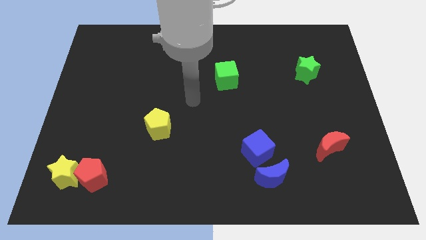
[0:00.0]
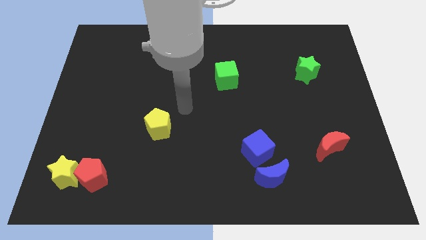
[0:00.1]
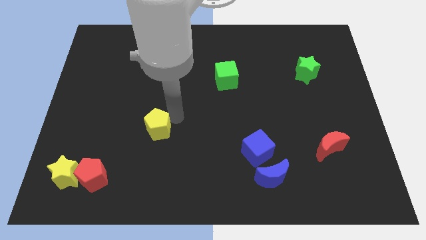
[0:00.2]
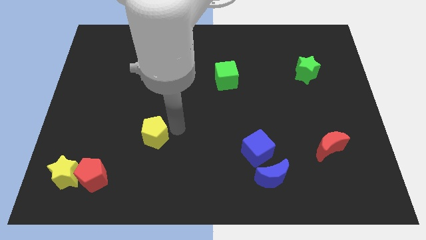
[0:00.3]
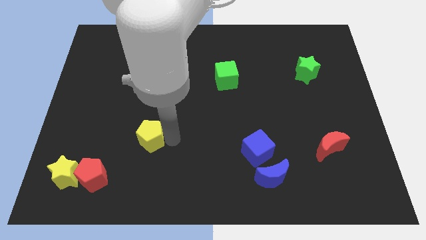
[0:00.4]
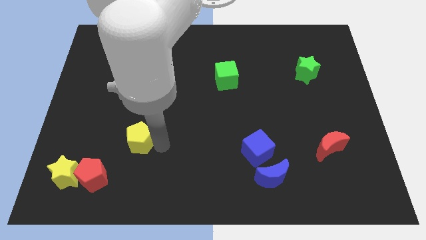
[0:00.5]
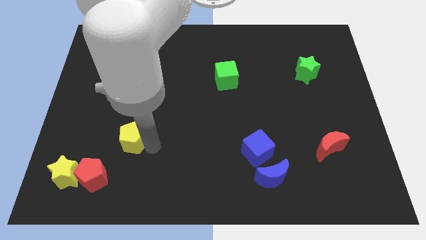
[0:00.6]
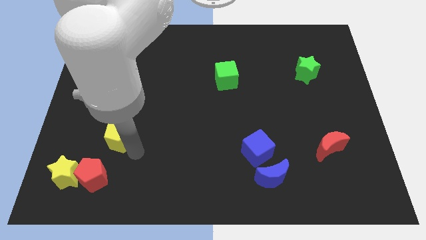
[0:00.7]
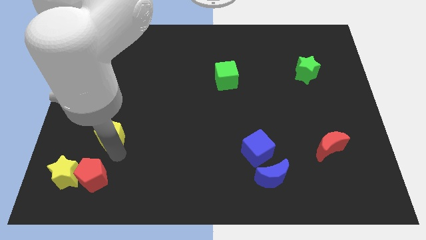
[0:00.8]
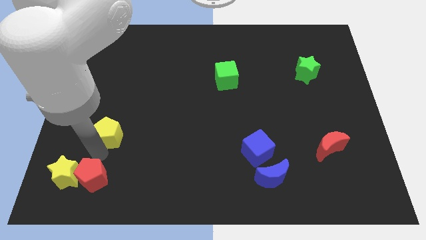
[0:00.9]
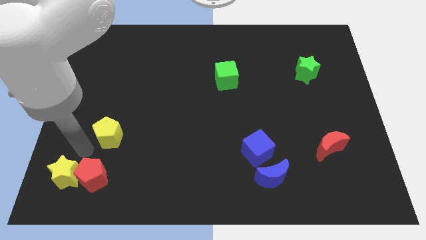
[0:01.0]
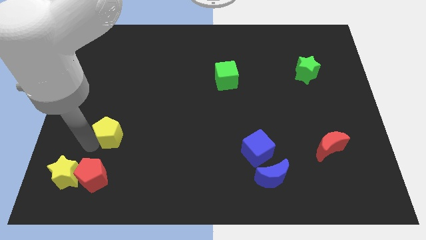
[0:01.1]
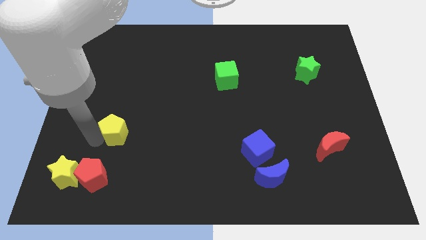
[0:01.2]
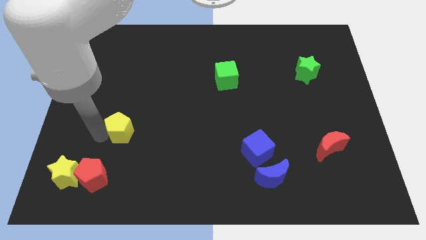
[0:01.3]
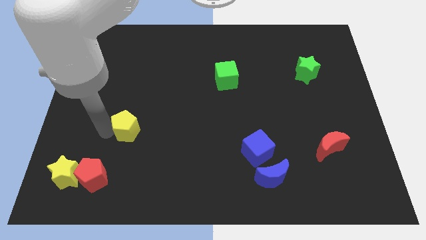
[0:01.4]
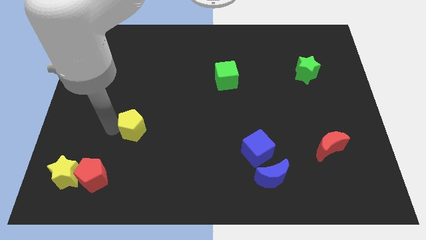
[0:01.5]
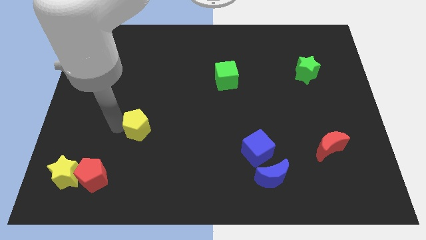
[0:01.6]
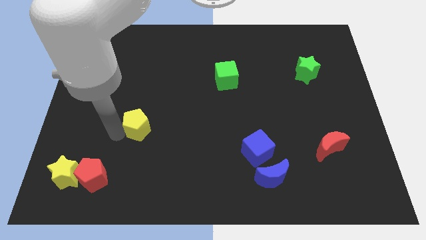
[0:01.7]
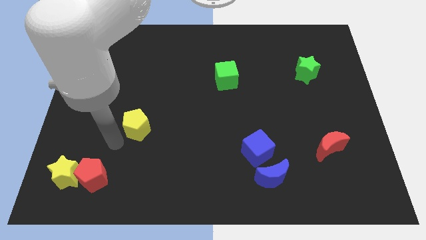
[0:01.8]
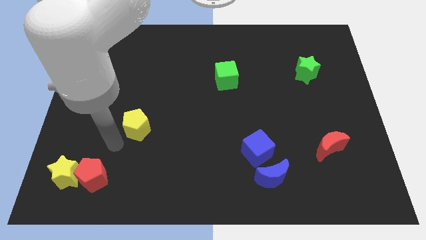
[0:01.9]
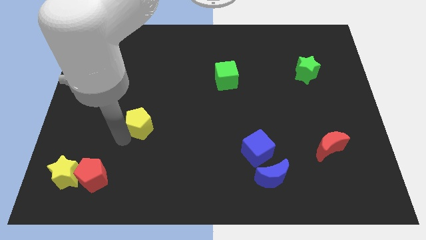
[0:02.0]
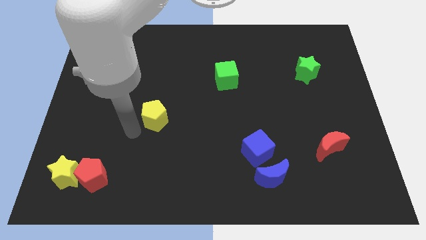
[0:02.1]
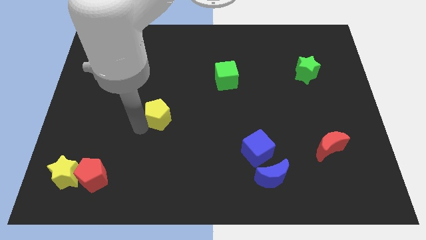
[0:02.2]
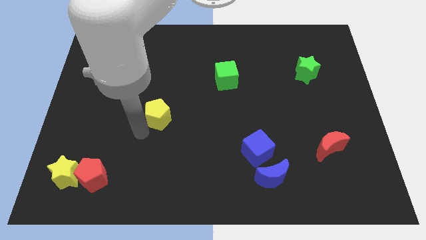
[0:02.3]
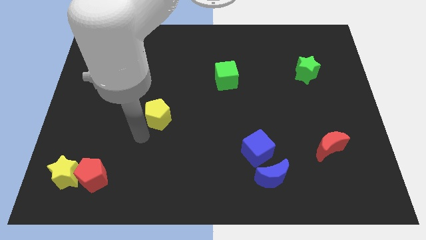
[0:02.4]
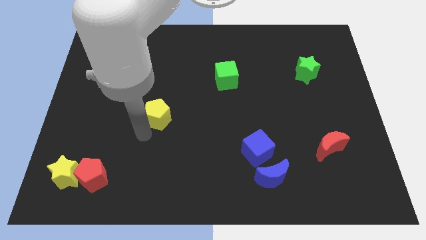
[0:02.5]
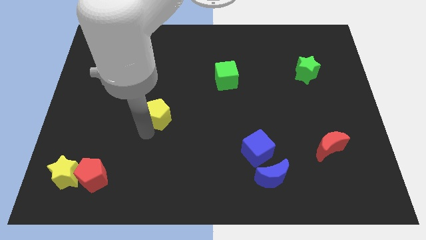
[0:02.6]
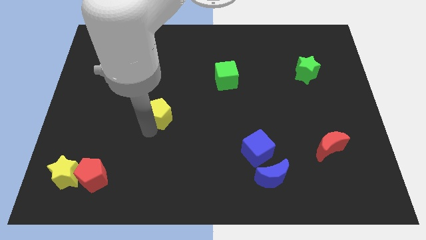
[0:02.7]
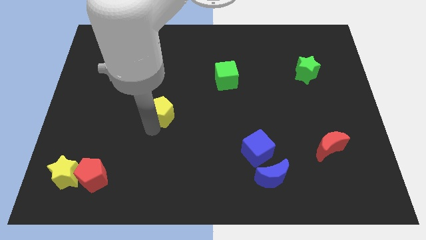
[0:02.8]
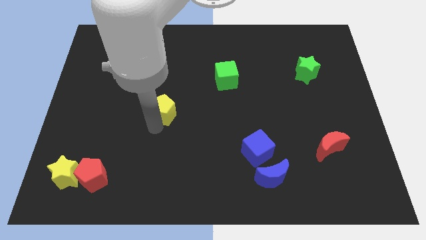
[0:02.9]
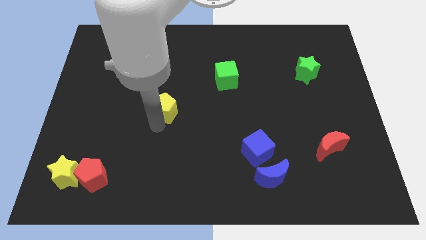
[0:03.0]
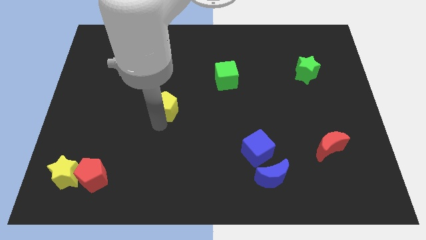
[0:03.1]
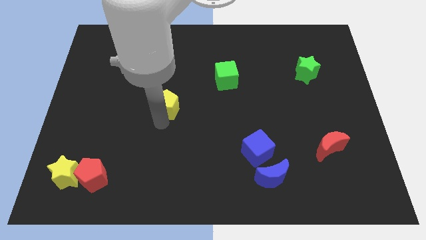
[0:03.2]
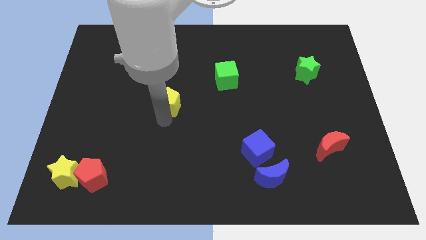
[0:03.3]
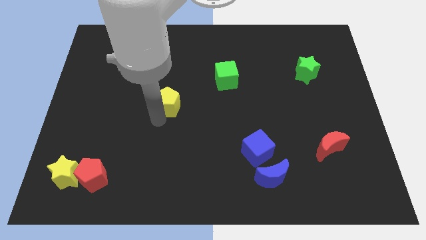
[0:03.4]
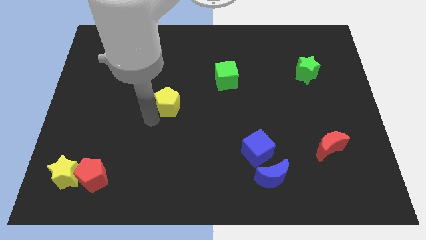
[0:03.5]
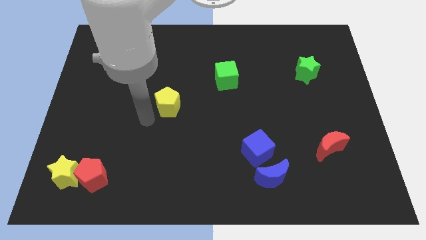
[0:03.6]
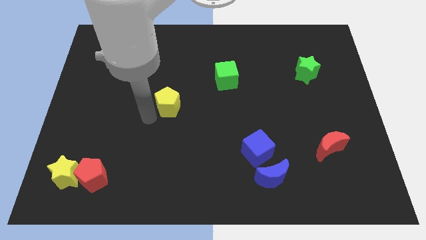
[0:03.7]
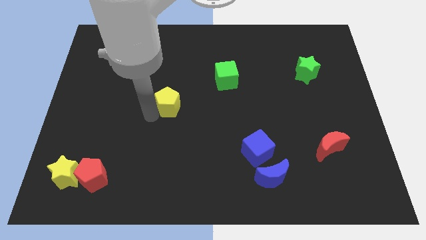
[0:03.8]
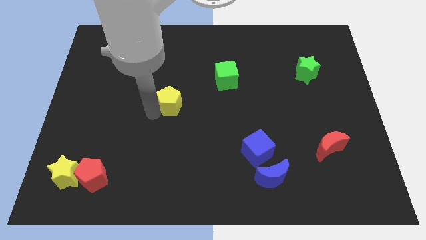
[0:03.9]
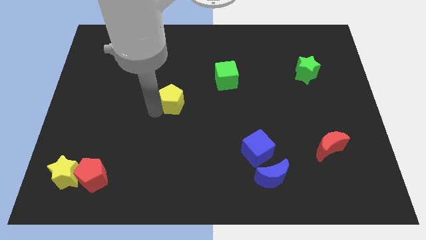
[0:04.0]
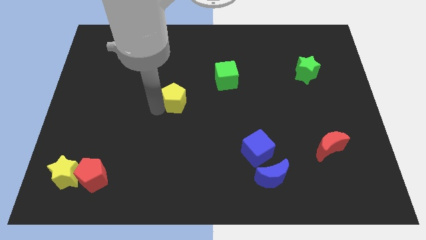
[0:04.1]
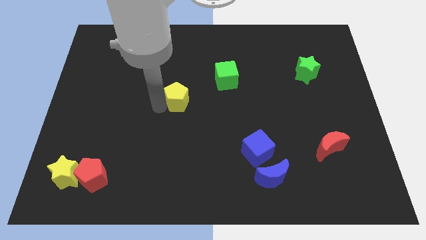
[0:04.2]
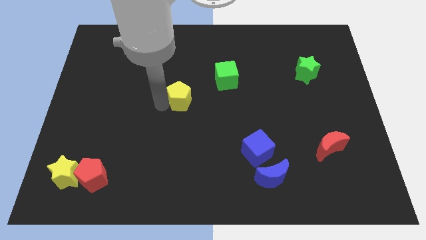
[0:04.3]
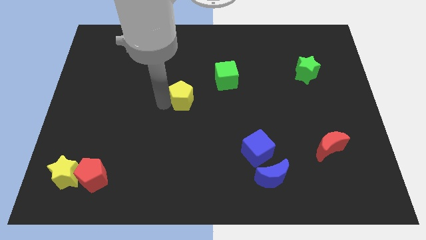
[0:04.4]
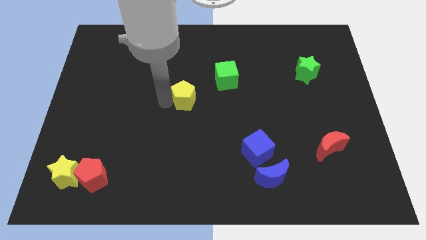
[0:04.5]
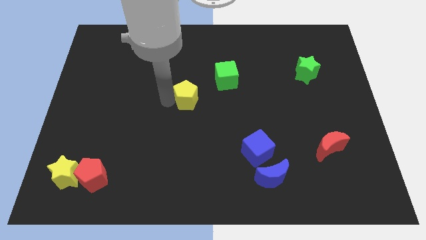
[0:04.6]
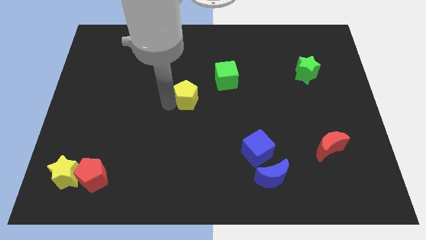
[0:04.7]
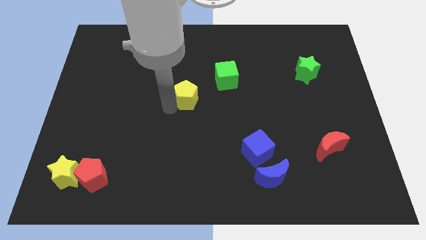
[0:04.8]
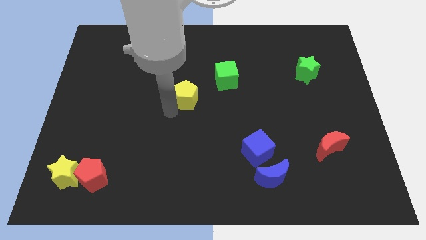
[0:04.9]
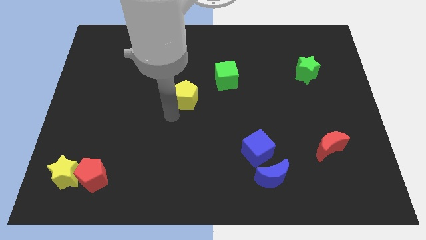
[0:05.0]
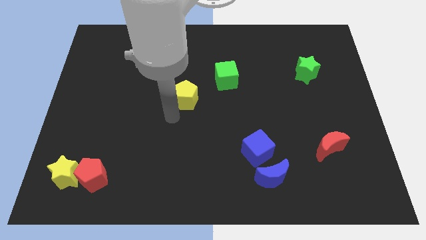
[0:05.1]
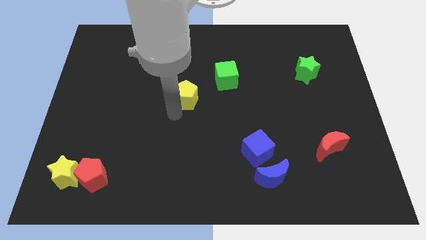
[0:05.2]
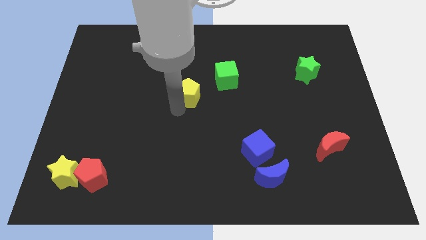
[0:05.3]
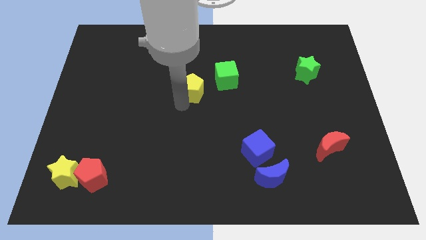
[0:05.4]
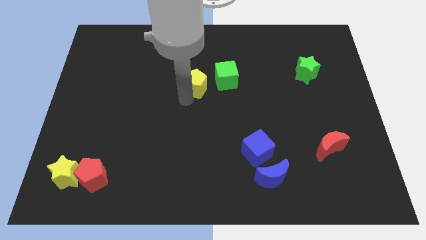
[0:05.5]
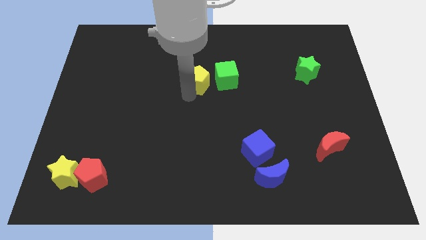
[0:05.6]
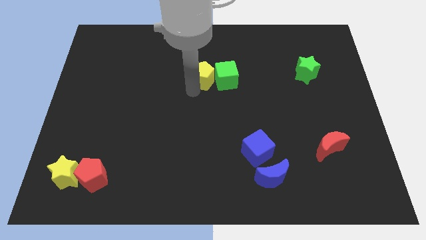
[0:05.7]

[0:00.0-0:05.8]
move the yellow pentagon to the top left of the green cube

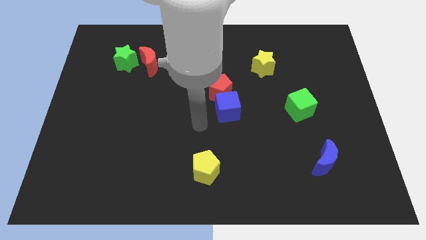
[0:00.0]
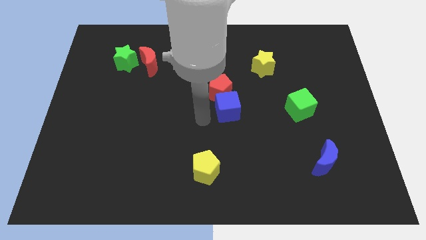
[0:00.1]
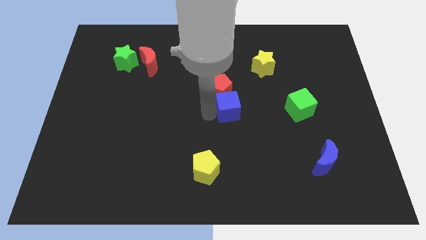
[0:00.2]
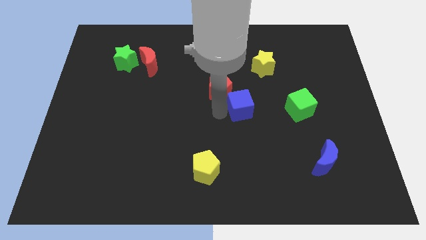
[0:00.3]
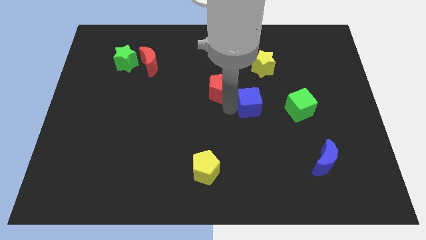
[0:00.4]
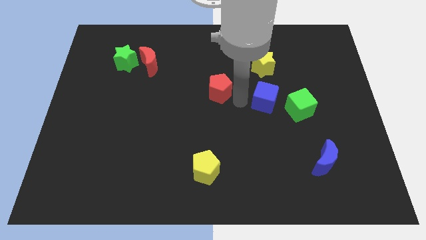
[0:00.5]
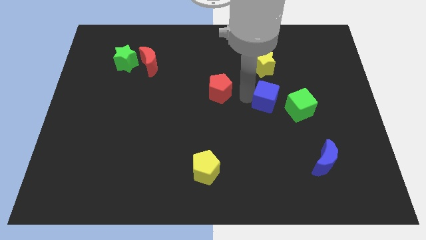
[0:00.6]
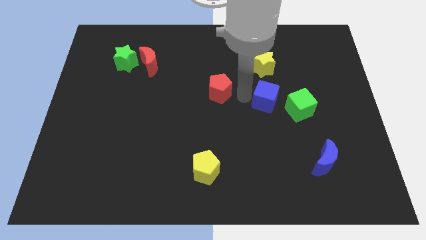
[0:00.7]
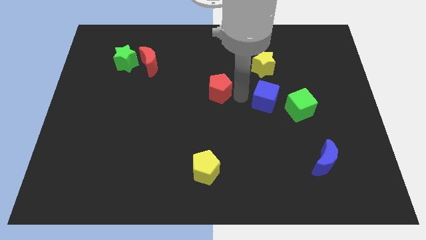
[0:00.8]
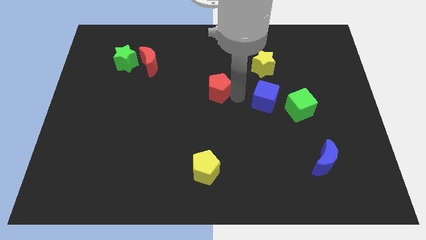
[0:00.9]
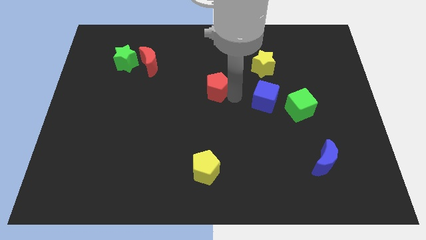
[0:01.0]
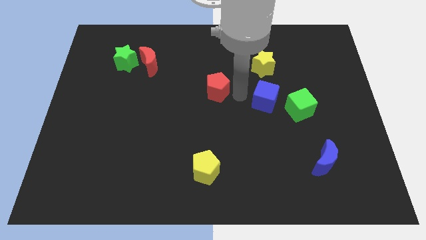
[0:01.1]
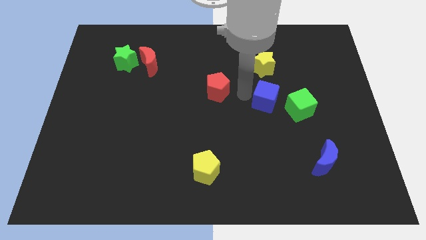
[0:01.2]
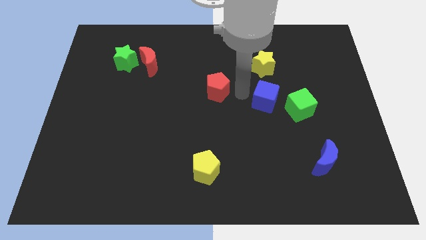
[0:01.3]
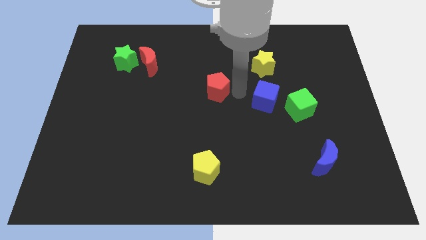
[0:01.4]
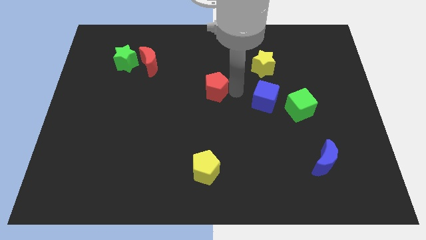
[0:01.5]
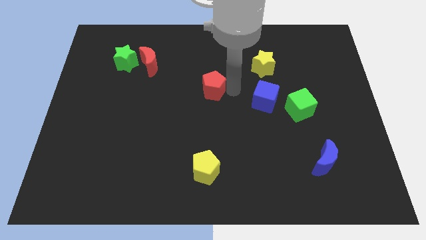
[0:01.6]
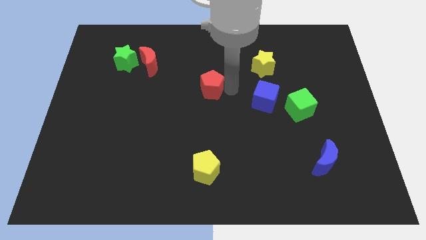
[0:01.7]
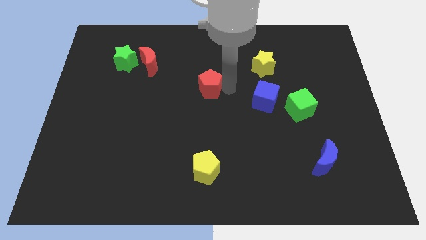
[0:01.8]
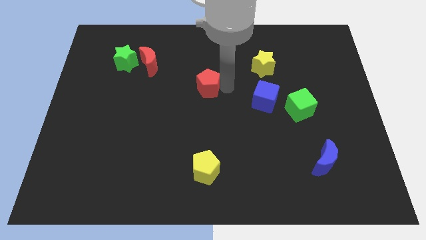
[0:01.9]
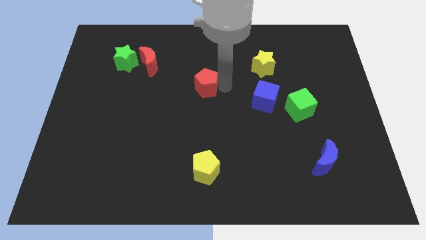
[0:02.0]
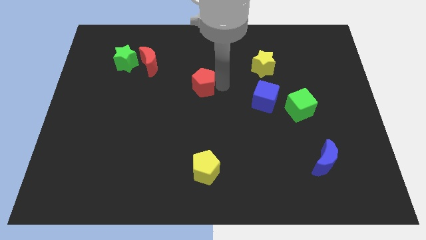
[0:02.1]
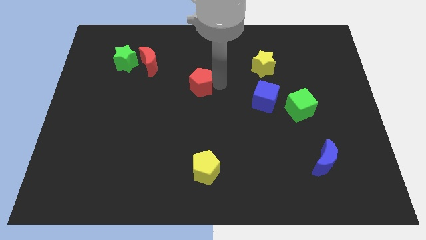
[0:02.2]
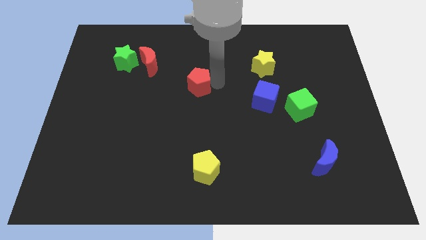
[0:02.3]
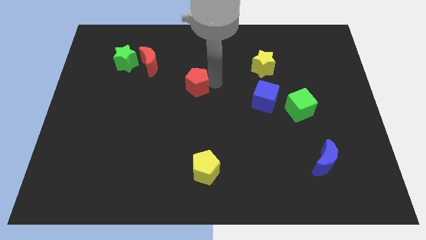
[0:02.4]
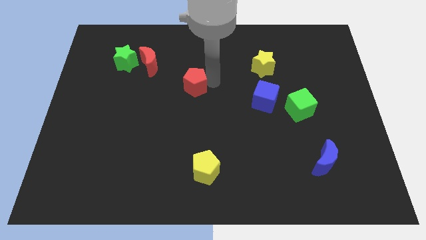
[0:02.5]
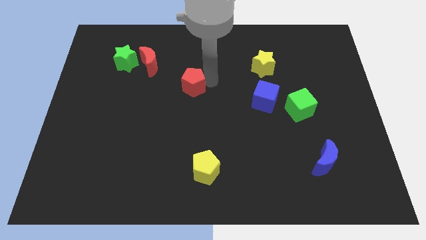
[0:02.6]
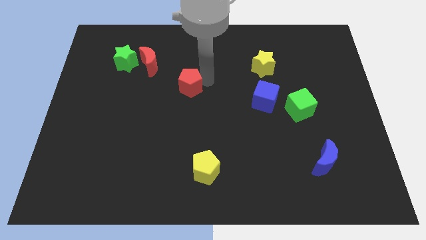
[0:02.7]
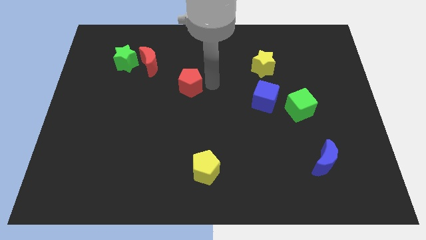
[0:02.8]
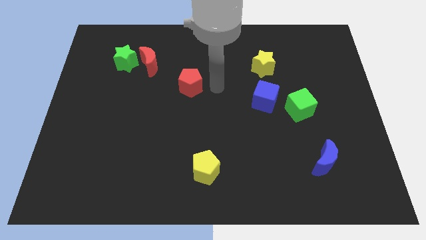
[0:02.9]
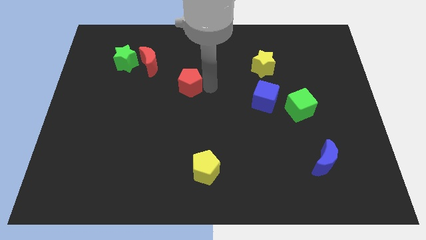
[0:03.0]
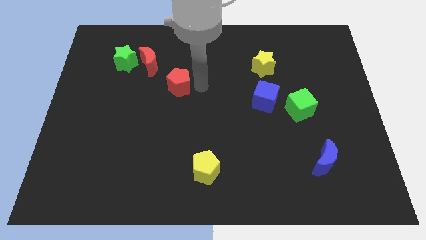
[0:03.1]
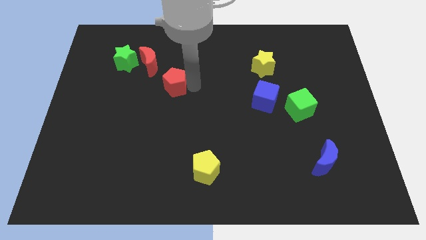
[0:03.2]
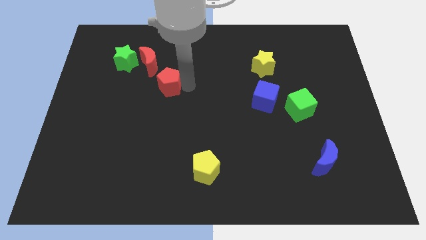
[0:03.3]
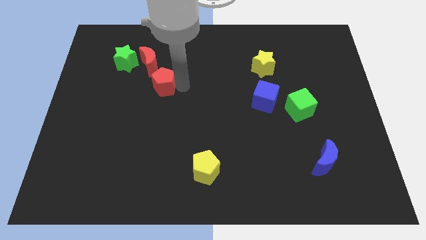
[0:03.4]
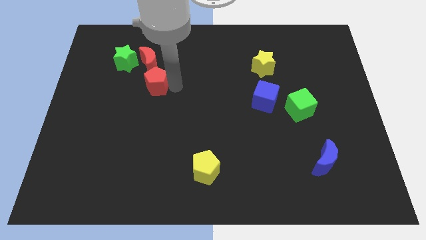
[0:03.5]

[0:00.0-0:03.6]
put the red pentagon diagonally down and to the right of the green star
